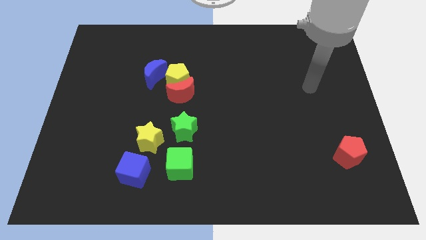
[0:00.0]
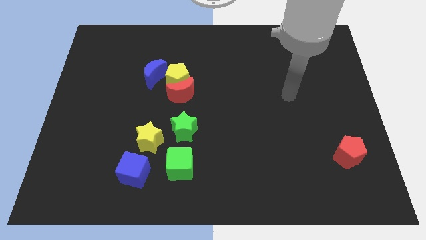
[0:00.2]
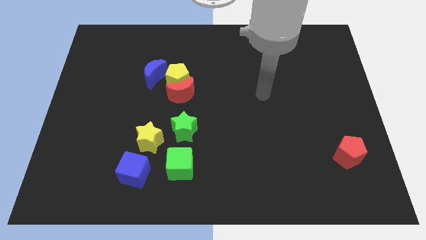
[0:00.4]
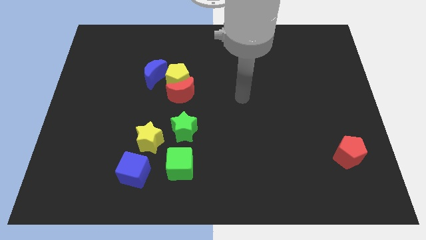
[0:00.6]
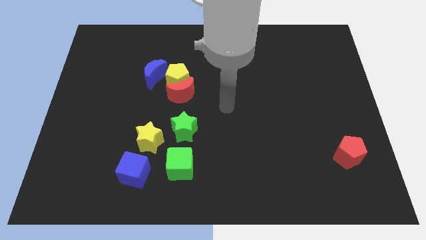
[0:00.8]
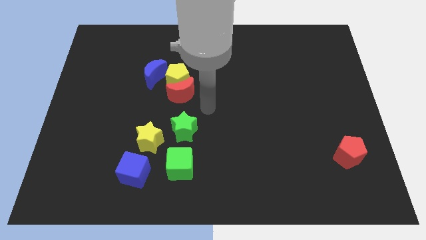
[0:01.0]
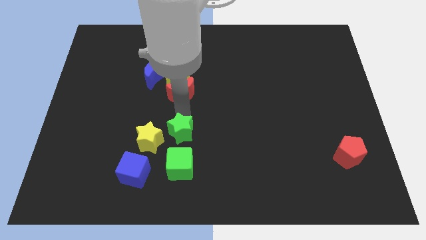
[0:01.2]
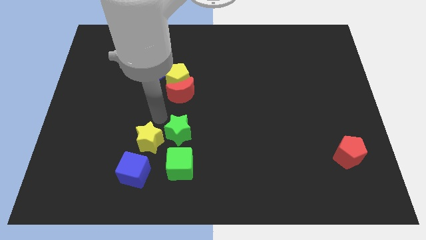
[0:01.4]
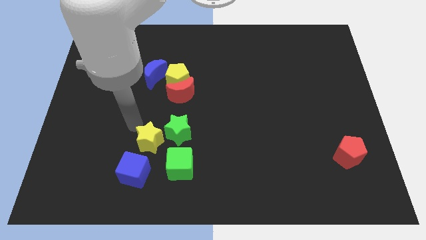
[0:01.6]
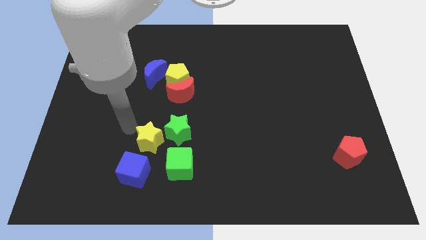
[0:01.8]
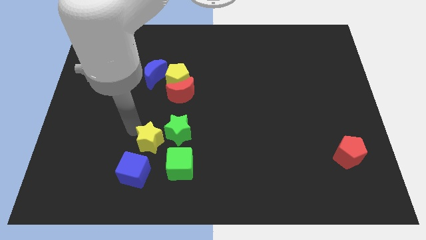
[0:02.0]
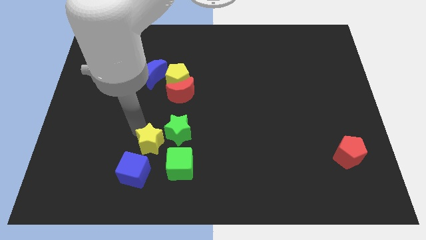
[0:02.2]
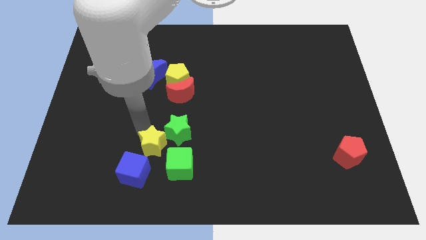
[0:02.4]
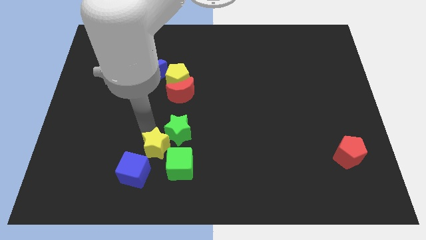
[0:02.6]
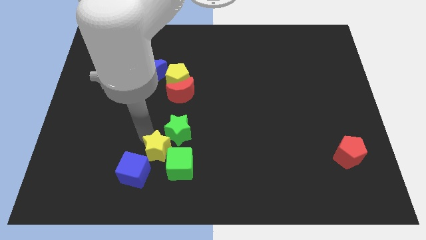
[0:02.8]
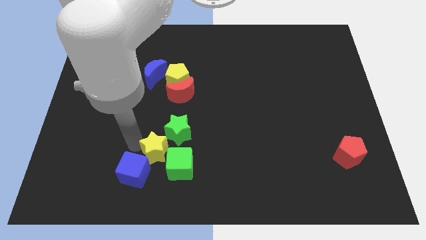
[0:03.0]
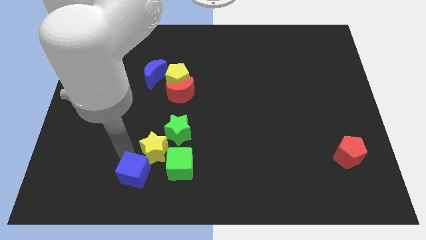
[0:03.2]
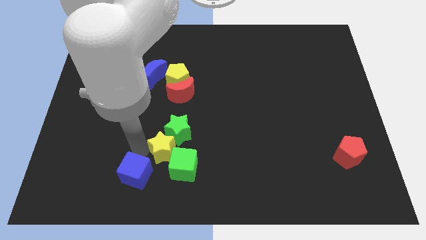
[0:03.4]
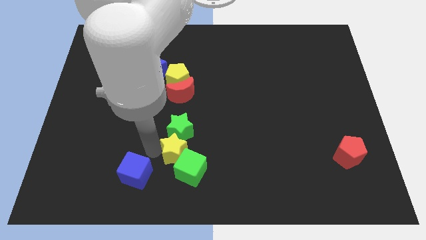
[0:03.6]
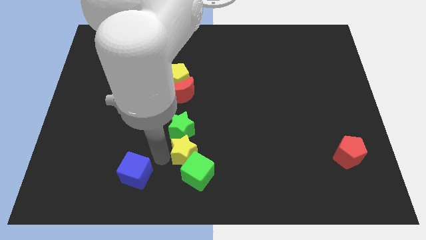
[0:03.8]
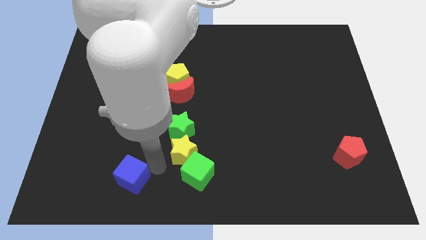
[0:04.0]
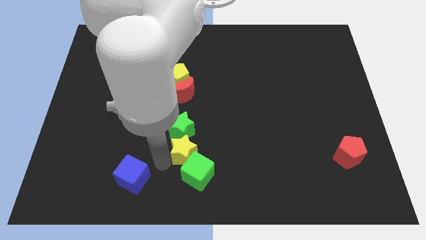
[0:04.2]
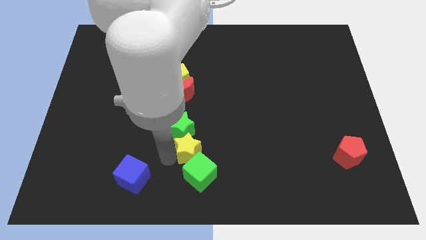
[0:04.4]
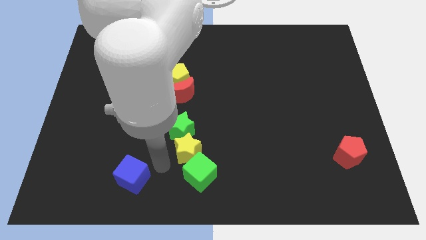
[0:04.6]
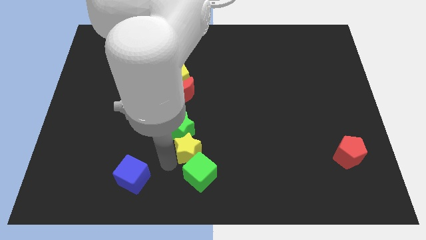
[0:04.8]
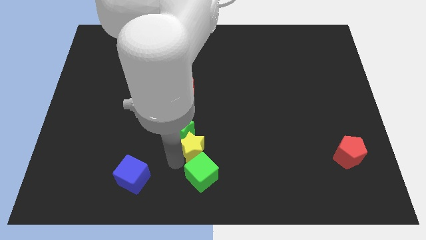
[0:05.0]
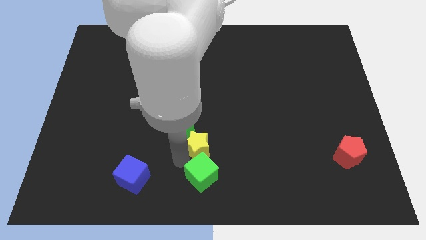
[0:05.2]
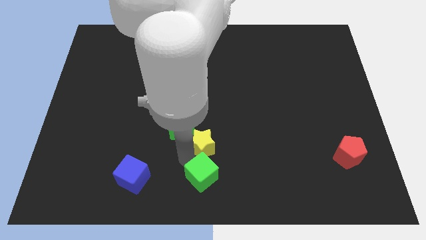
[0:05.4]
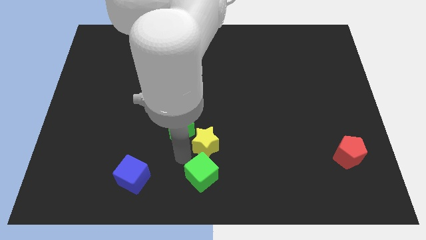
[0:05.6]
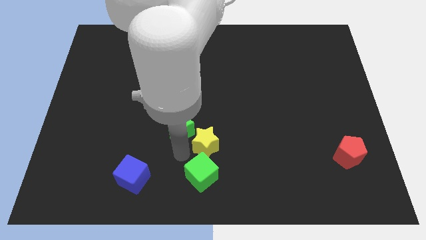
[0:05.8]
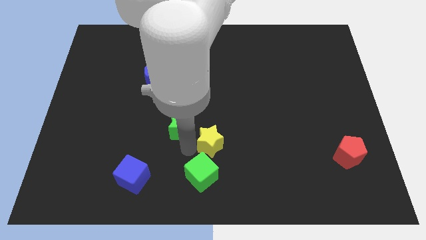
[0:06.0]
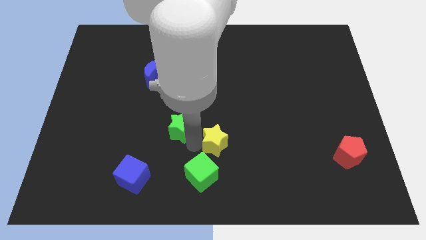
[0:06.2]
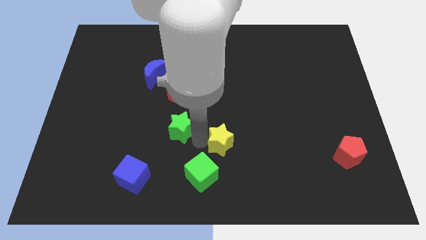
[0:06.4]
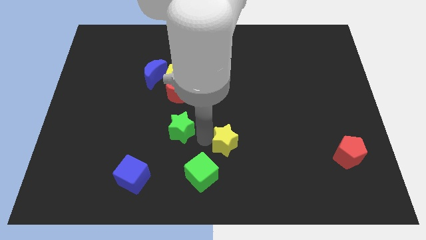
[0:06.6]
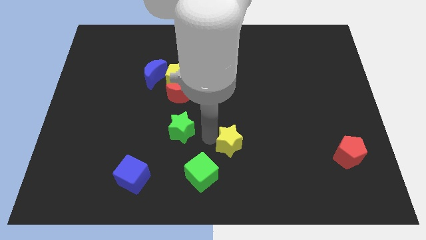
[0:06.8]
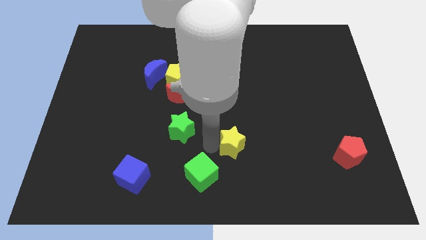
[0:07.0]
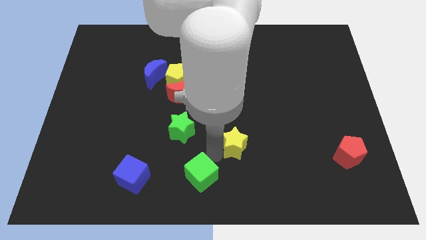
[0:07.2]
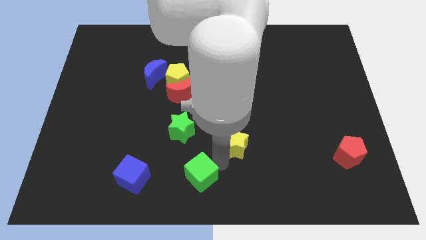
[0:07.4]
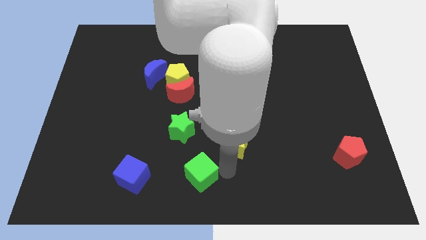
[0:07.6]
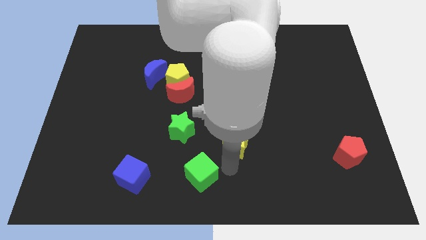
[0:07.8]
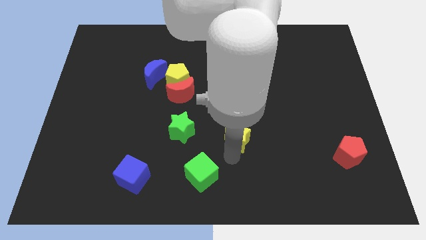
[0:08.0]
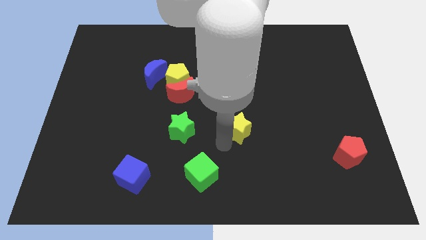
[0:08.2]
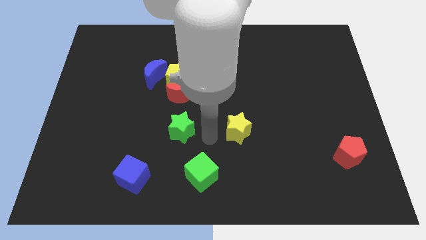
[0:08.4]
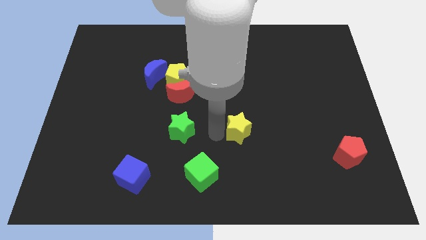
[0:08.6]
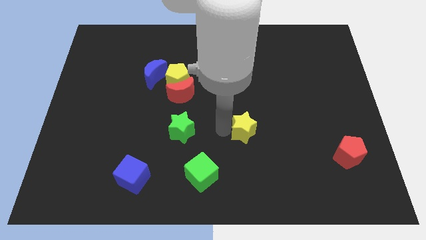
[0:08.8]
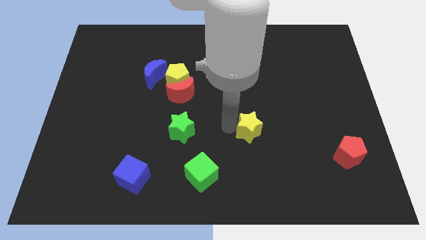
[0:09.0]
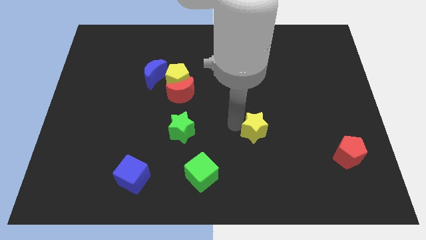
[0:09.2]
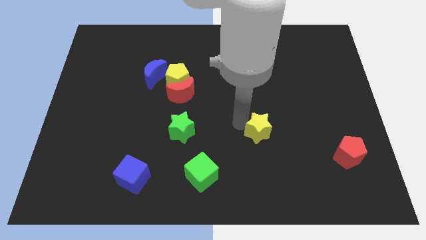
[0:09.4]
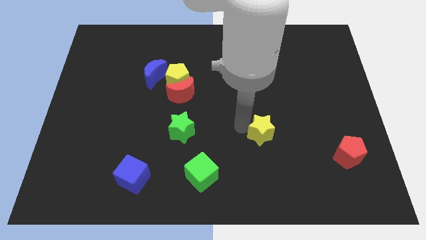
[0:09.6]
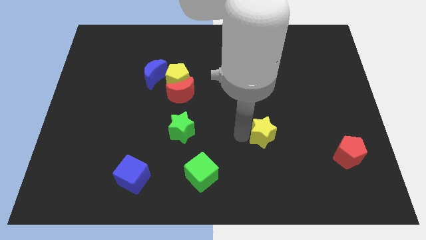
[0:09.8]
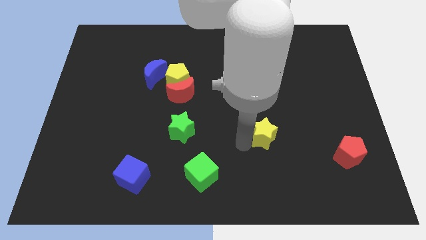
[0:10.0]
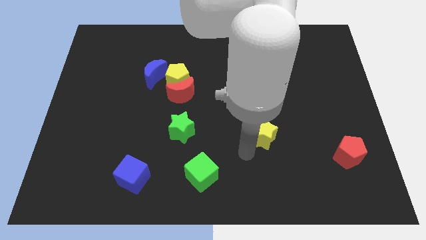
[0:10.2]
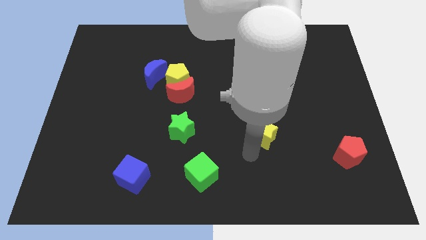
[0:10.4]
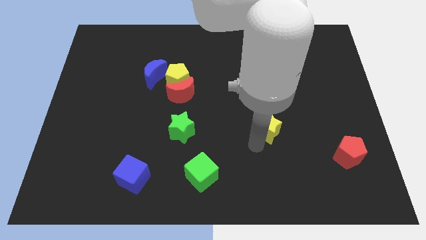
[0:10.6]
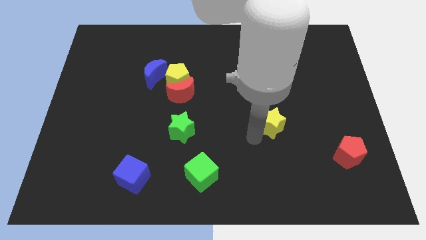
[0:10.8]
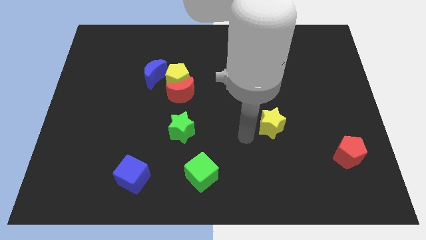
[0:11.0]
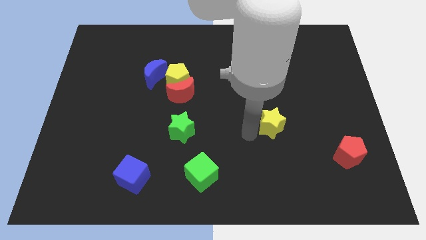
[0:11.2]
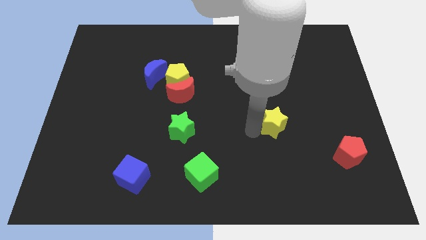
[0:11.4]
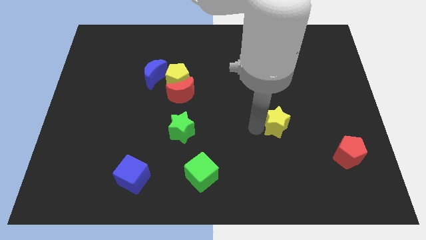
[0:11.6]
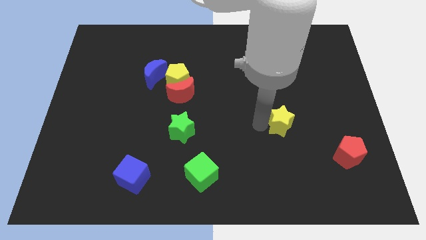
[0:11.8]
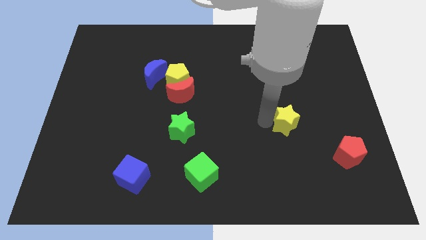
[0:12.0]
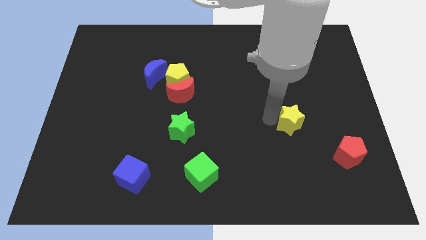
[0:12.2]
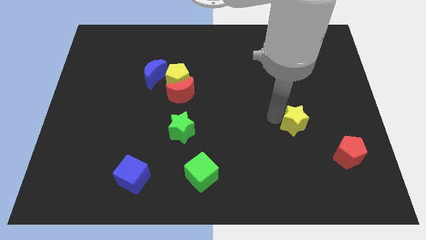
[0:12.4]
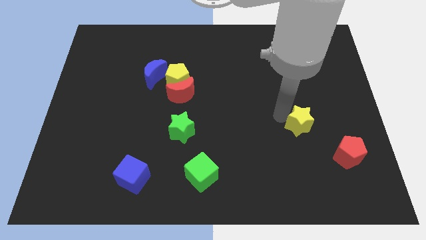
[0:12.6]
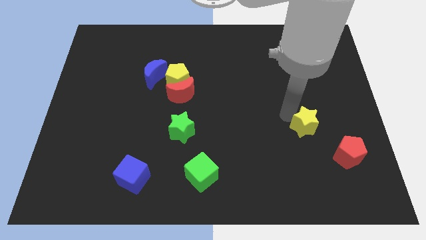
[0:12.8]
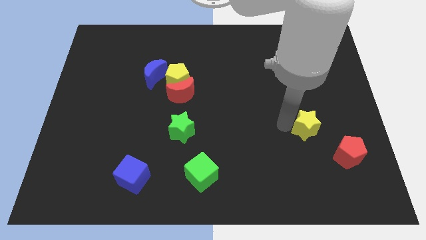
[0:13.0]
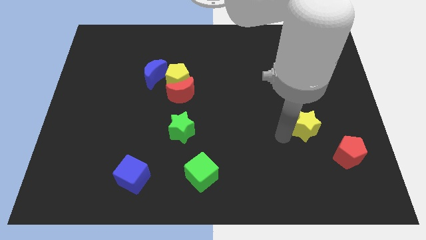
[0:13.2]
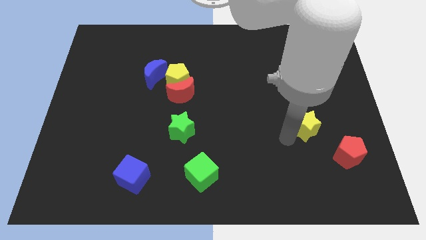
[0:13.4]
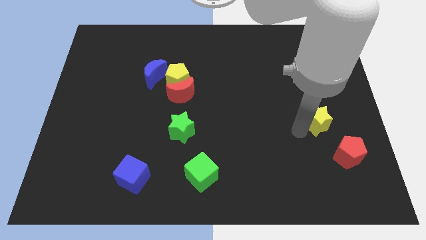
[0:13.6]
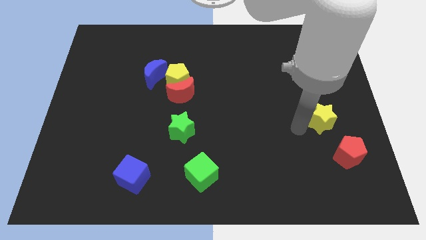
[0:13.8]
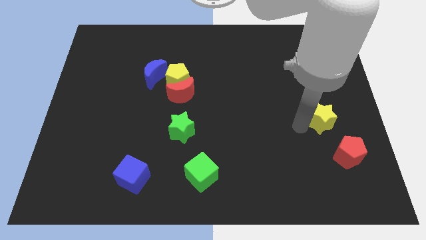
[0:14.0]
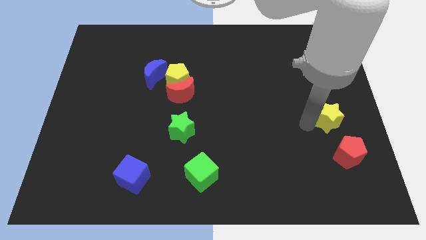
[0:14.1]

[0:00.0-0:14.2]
move the yellow star to the right side

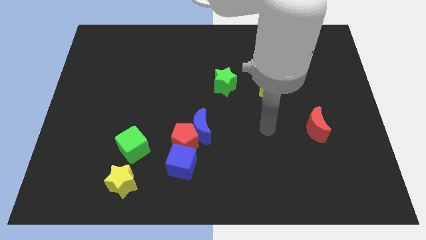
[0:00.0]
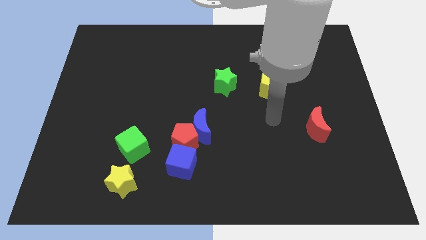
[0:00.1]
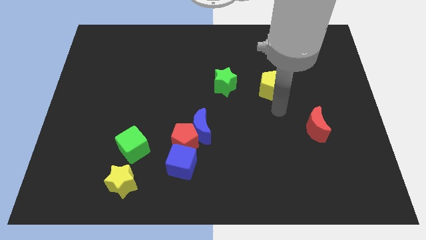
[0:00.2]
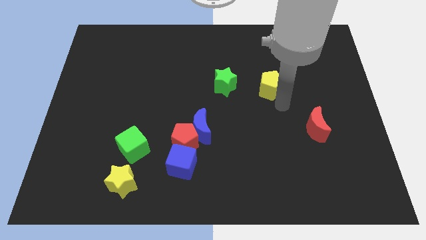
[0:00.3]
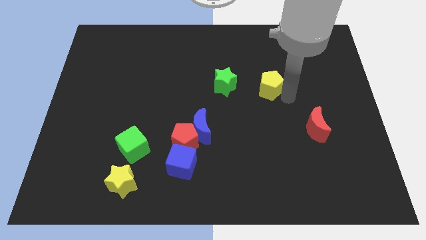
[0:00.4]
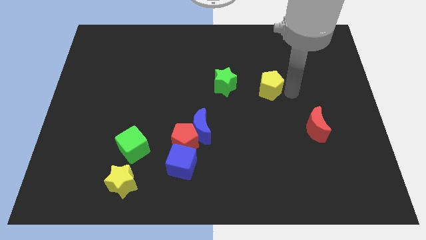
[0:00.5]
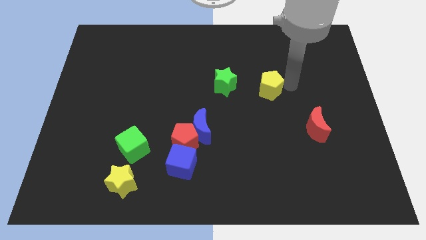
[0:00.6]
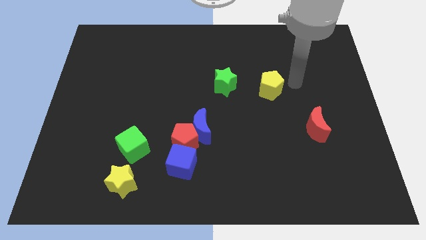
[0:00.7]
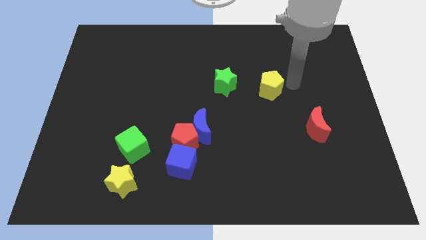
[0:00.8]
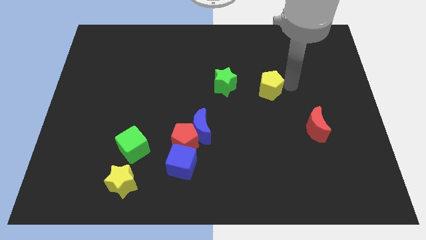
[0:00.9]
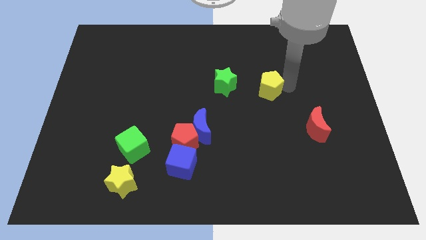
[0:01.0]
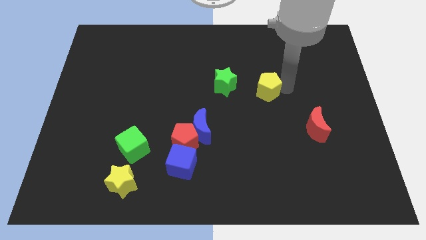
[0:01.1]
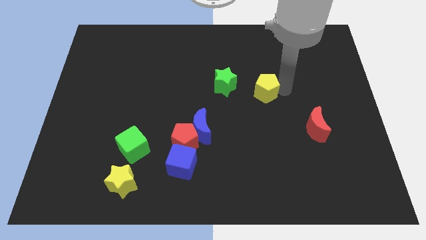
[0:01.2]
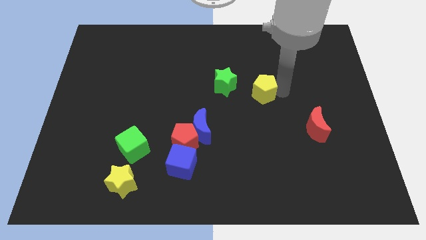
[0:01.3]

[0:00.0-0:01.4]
put the yellow pentagon to the center of the board
